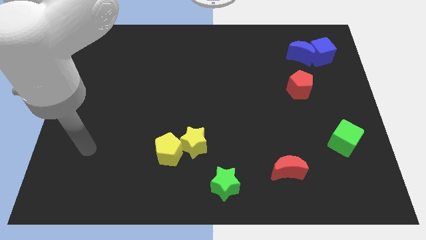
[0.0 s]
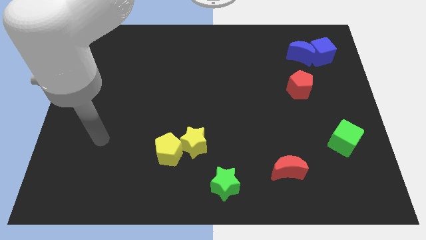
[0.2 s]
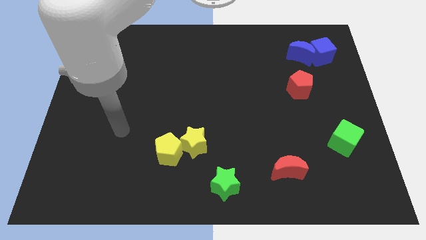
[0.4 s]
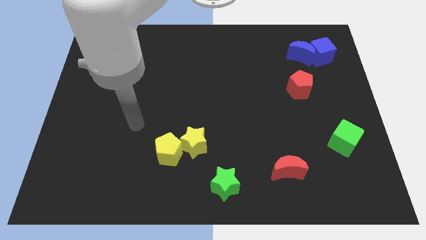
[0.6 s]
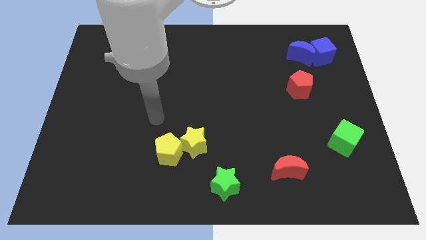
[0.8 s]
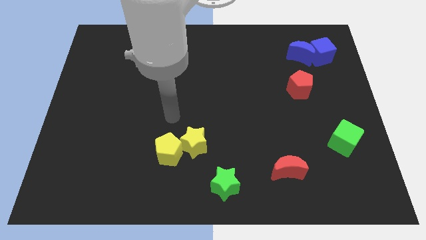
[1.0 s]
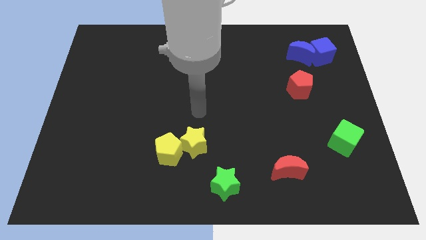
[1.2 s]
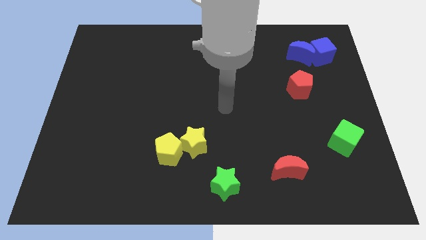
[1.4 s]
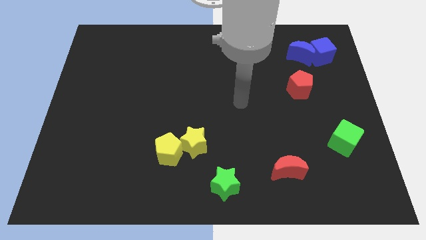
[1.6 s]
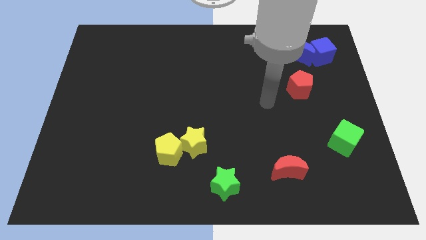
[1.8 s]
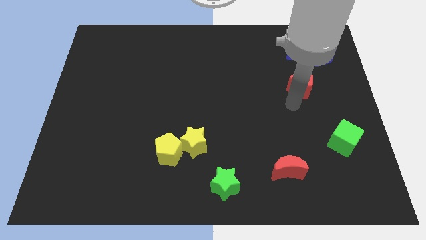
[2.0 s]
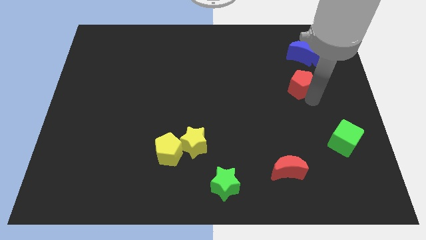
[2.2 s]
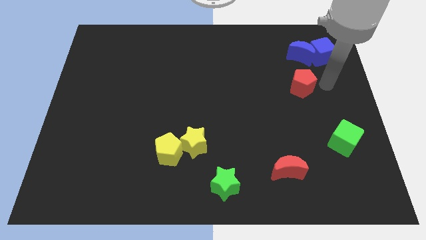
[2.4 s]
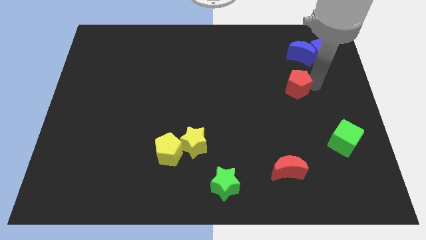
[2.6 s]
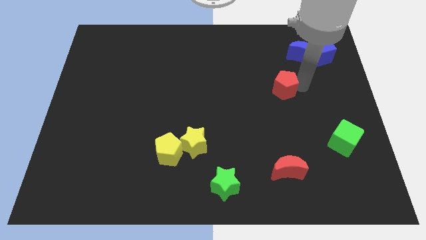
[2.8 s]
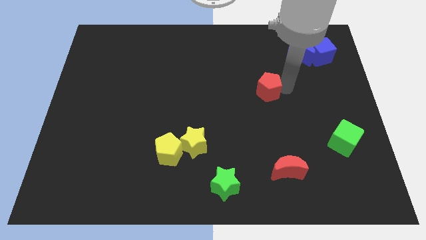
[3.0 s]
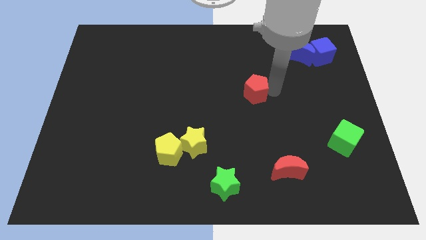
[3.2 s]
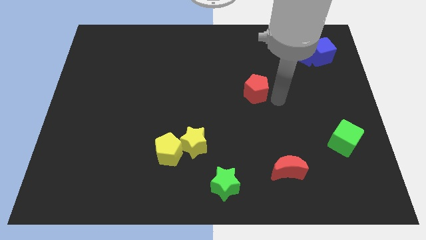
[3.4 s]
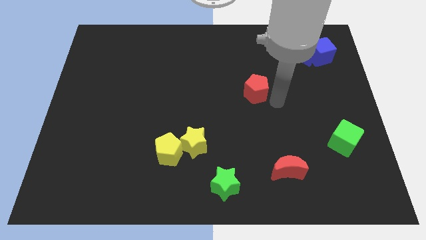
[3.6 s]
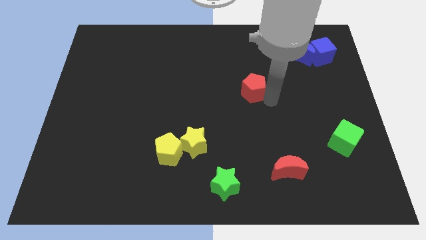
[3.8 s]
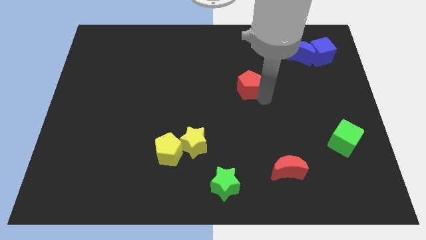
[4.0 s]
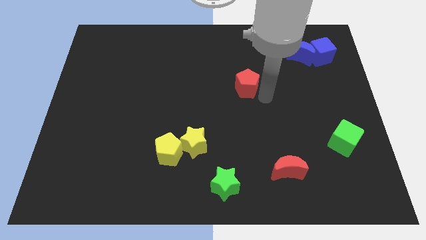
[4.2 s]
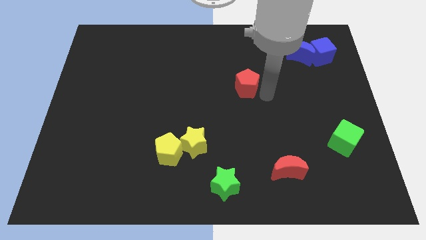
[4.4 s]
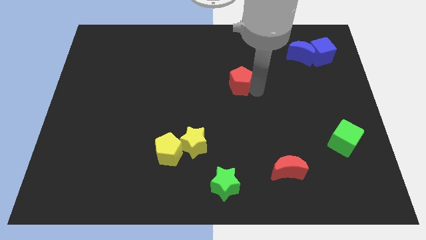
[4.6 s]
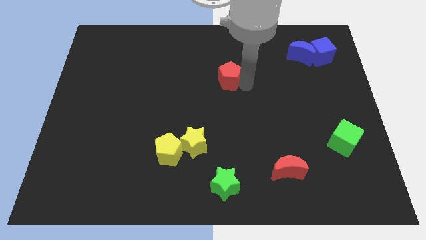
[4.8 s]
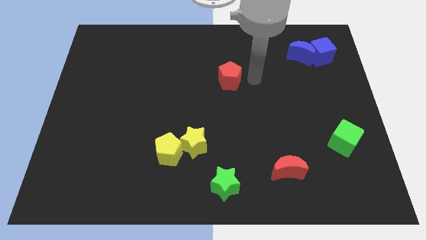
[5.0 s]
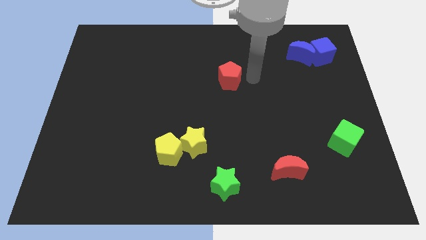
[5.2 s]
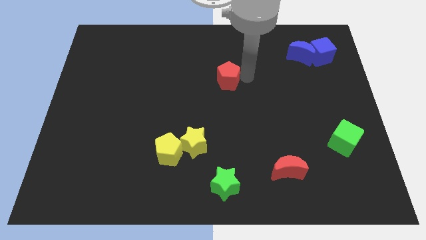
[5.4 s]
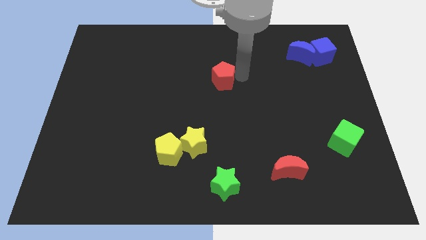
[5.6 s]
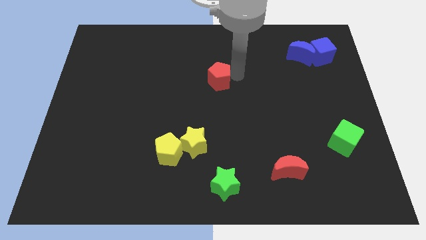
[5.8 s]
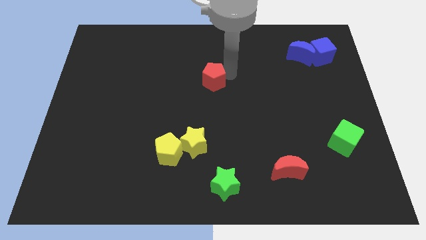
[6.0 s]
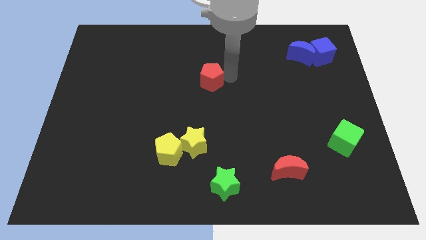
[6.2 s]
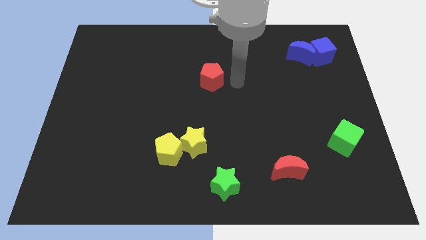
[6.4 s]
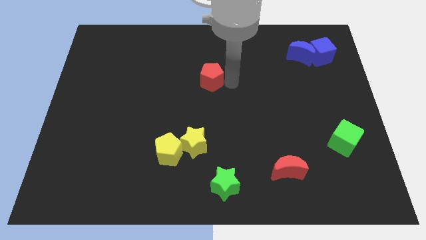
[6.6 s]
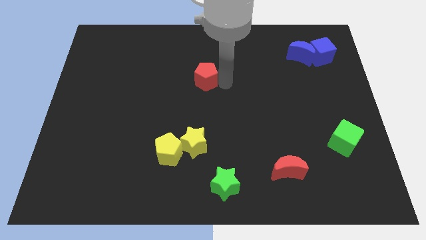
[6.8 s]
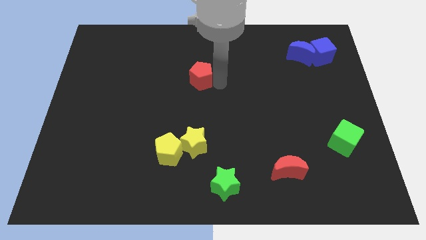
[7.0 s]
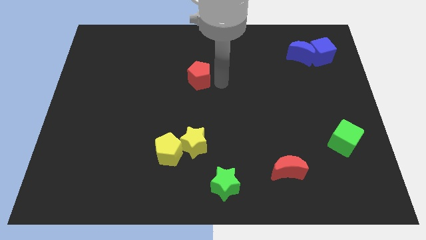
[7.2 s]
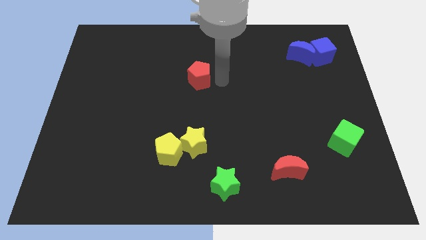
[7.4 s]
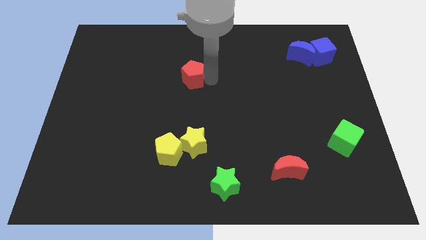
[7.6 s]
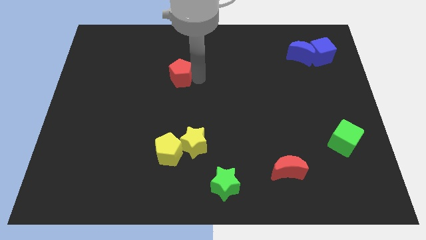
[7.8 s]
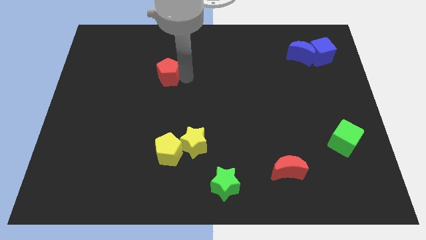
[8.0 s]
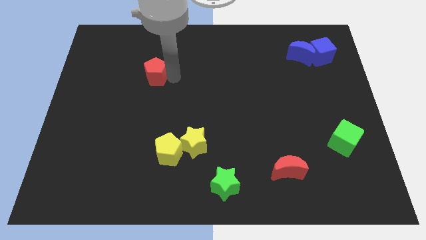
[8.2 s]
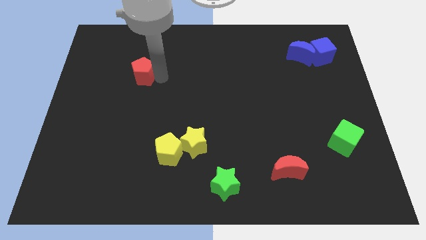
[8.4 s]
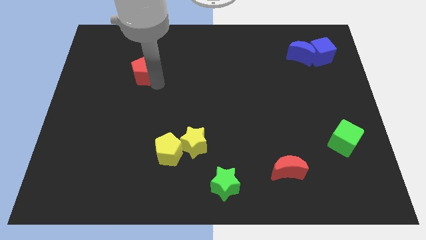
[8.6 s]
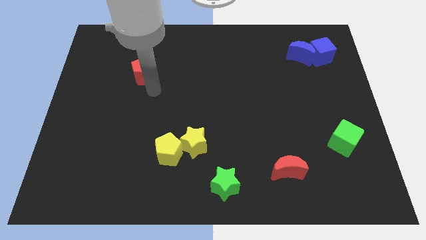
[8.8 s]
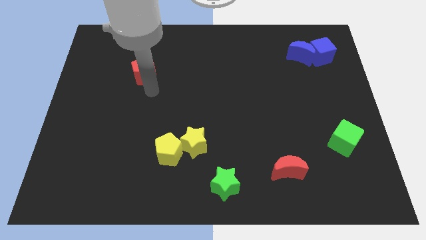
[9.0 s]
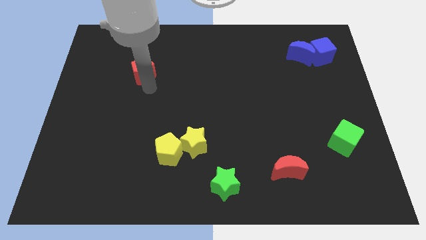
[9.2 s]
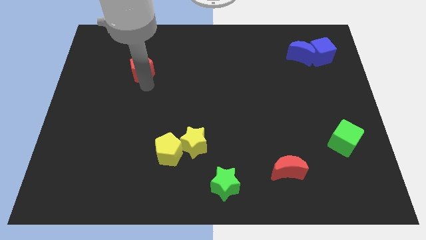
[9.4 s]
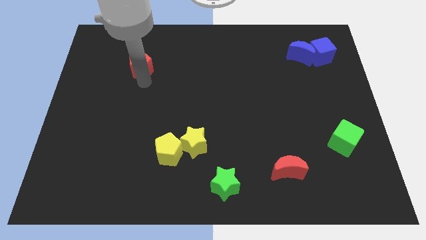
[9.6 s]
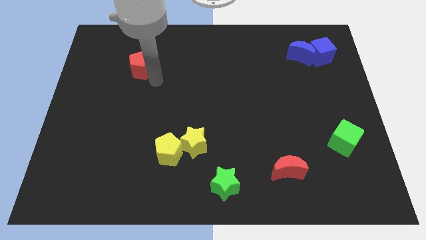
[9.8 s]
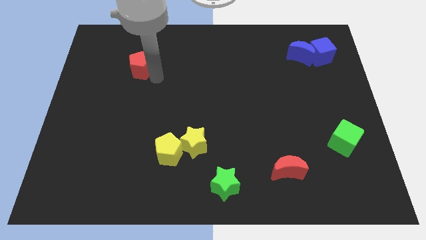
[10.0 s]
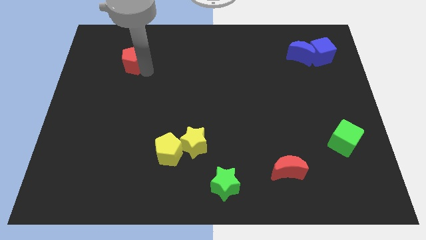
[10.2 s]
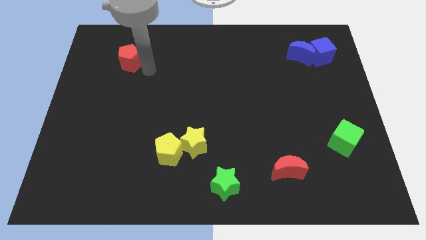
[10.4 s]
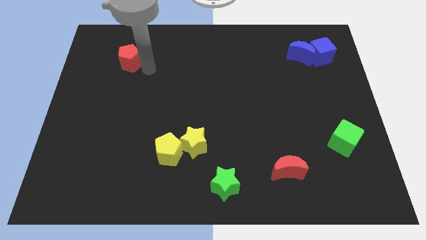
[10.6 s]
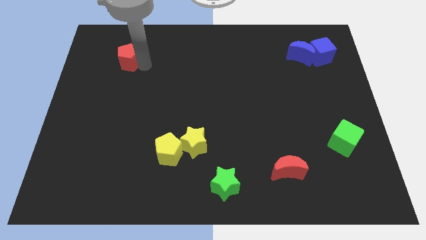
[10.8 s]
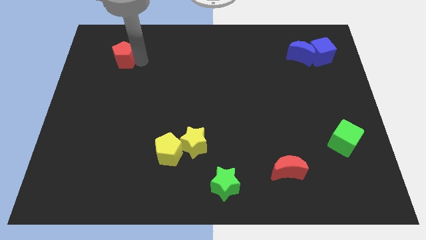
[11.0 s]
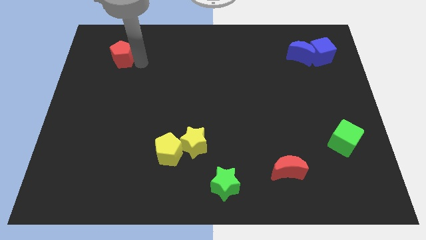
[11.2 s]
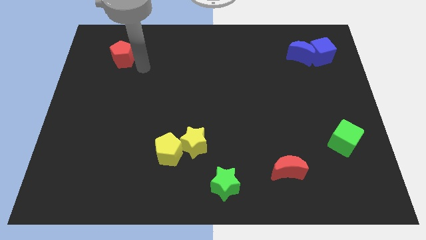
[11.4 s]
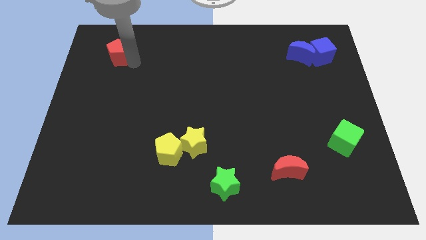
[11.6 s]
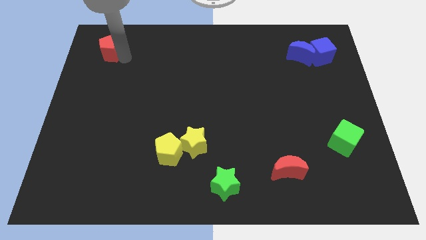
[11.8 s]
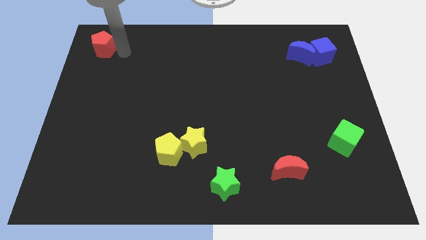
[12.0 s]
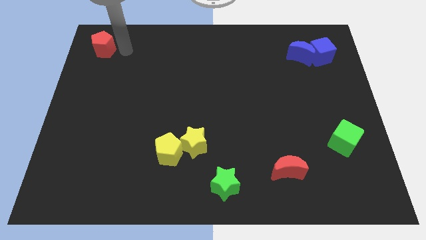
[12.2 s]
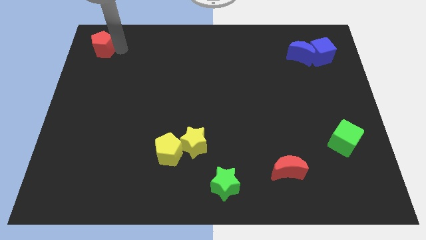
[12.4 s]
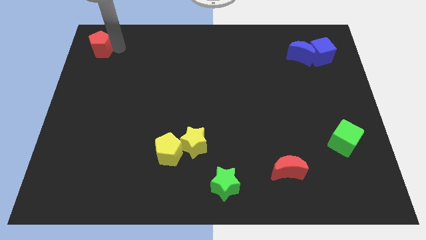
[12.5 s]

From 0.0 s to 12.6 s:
slide the red pentagon to the top left
